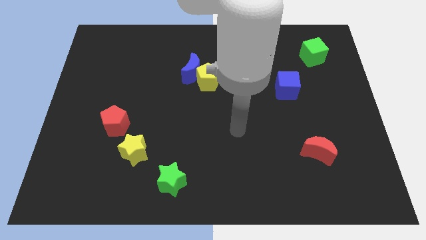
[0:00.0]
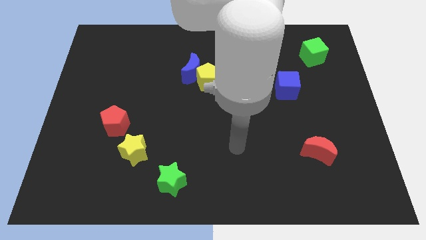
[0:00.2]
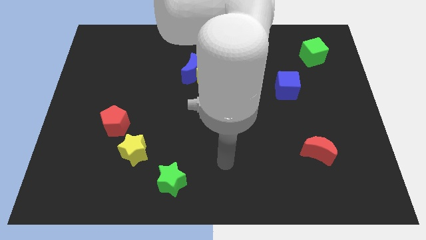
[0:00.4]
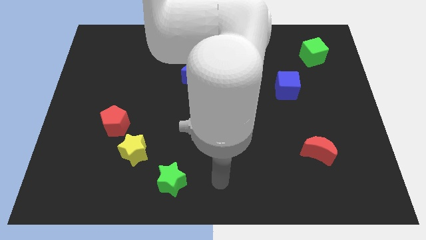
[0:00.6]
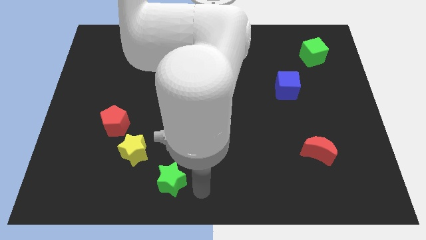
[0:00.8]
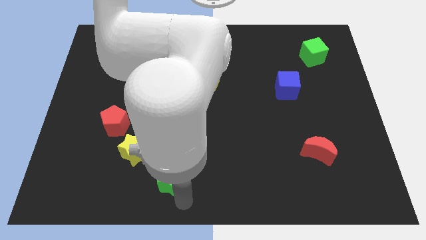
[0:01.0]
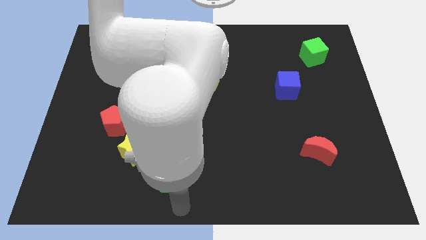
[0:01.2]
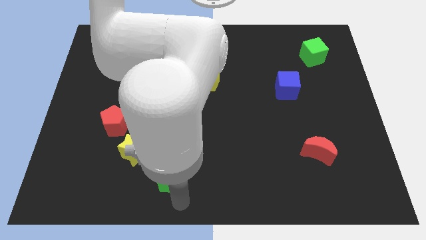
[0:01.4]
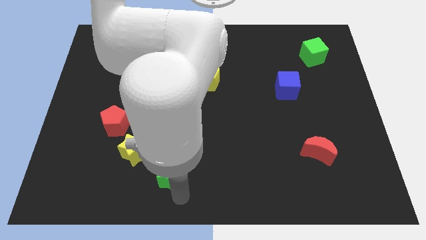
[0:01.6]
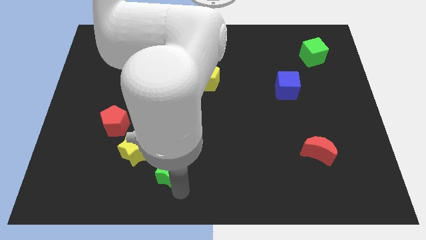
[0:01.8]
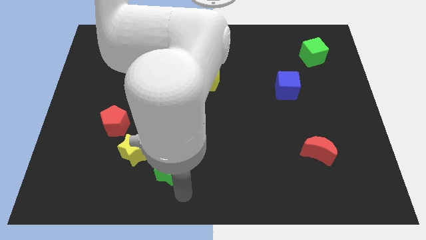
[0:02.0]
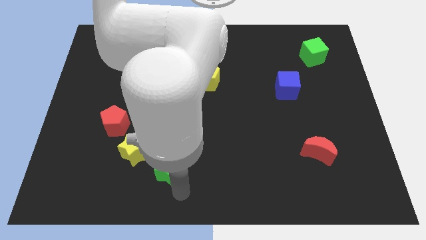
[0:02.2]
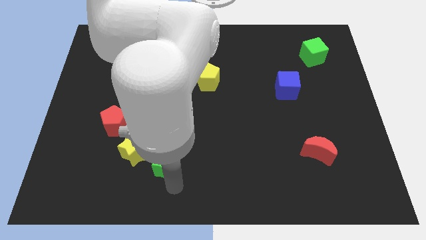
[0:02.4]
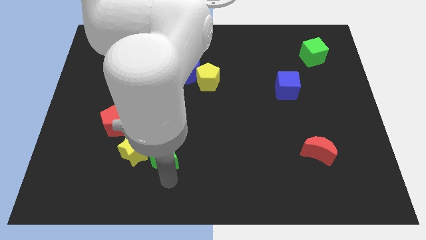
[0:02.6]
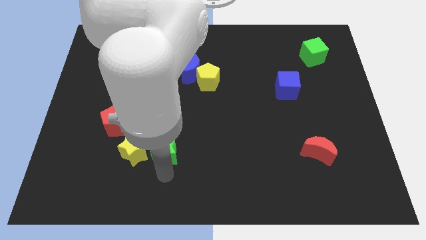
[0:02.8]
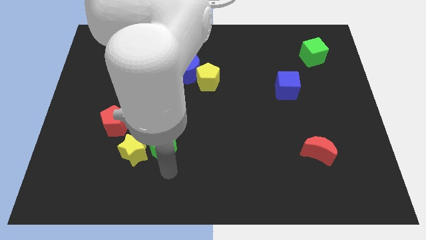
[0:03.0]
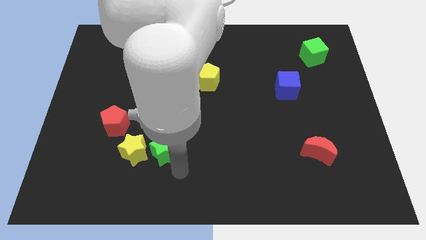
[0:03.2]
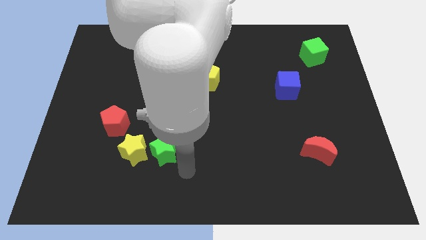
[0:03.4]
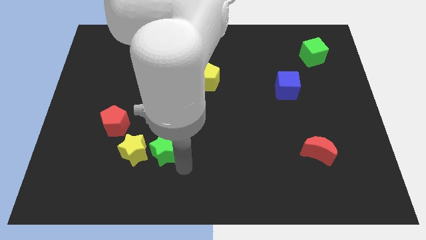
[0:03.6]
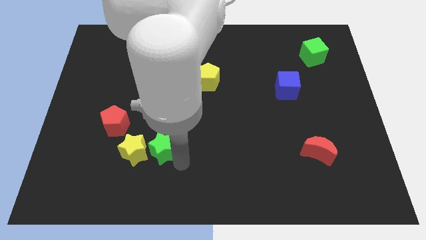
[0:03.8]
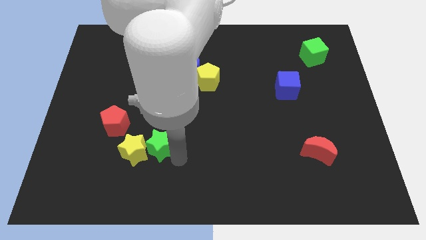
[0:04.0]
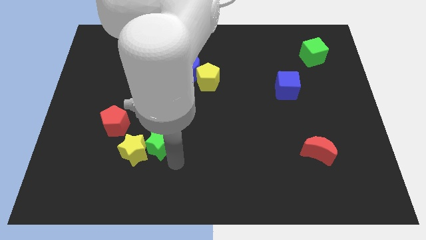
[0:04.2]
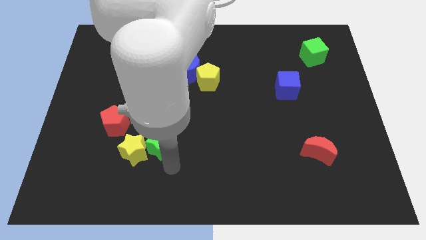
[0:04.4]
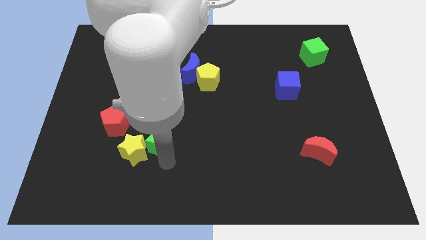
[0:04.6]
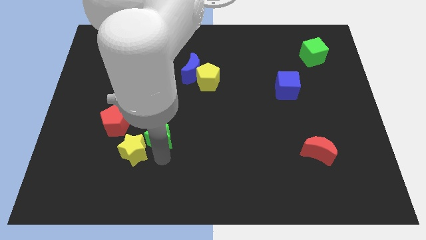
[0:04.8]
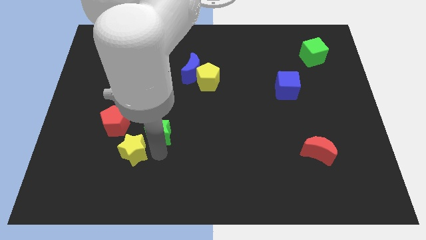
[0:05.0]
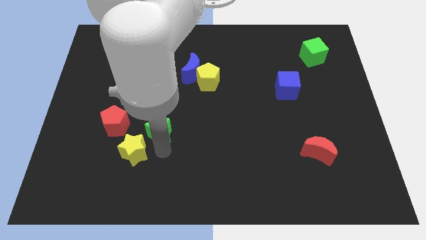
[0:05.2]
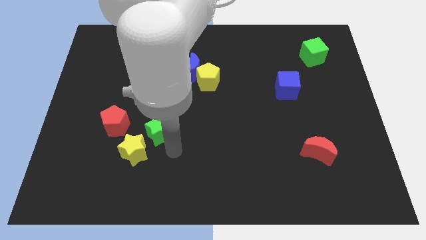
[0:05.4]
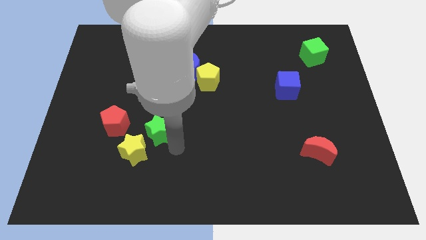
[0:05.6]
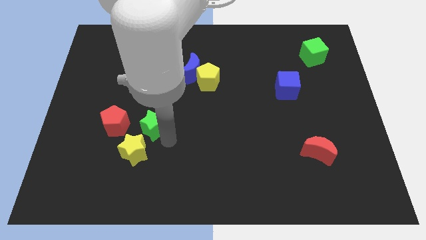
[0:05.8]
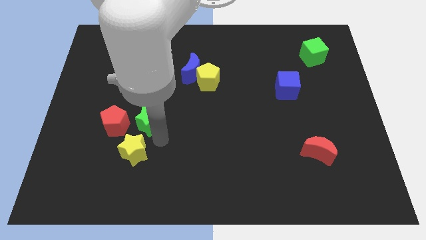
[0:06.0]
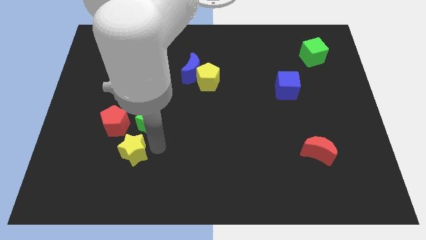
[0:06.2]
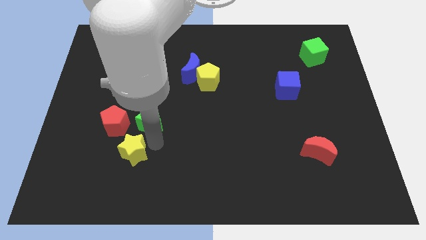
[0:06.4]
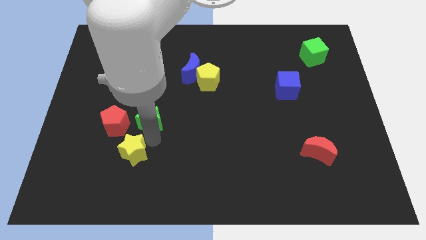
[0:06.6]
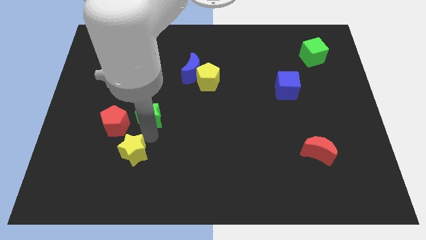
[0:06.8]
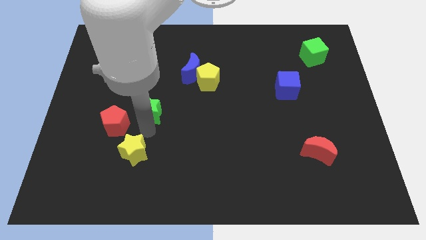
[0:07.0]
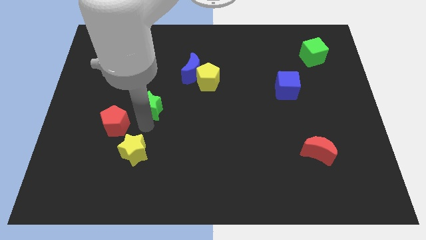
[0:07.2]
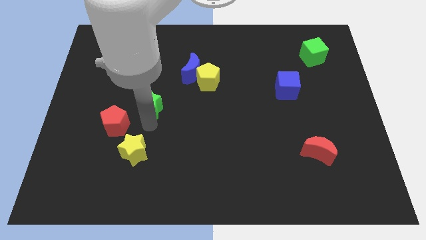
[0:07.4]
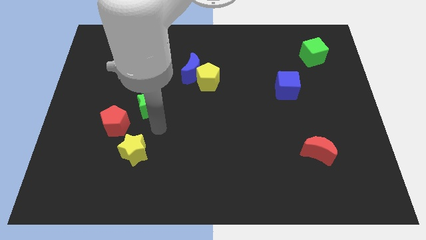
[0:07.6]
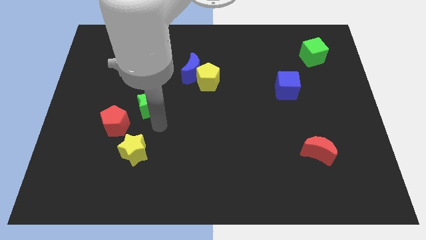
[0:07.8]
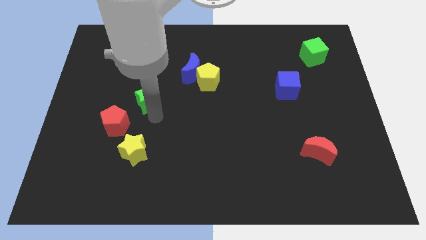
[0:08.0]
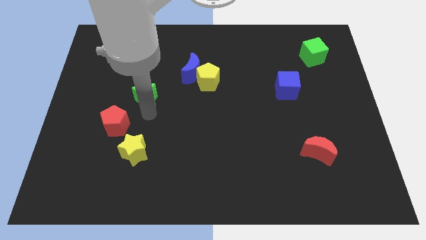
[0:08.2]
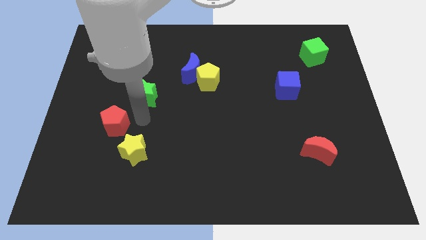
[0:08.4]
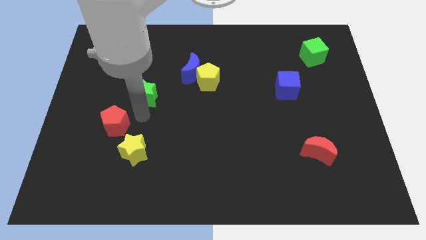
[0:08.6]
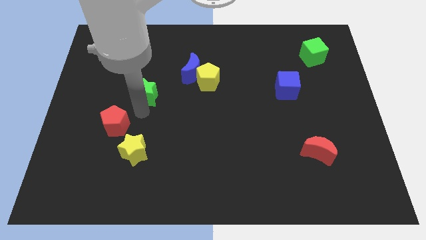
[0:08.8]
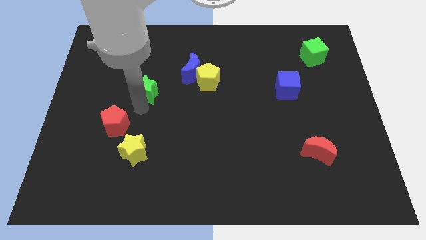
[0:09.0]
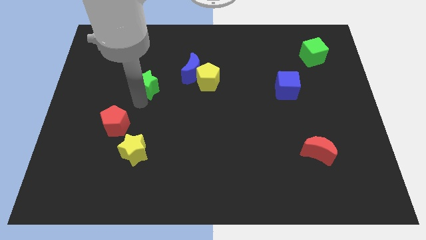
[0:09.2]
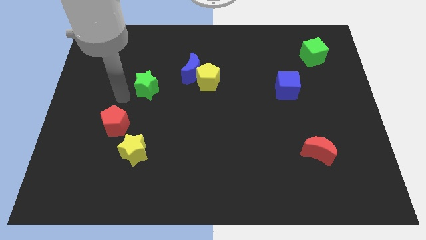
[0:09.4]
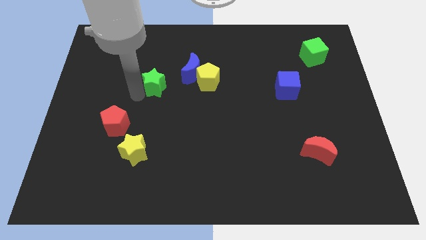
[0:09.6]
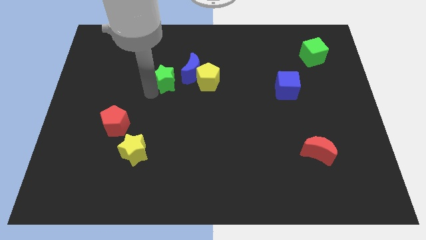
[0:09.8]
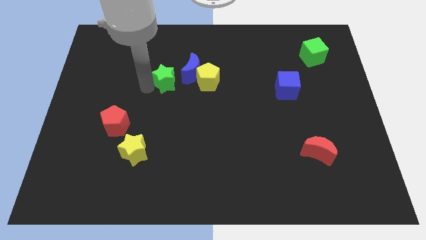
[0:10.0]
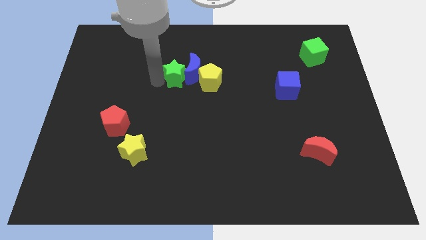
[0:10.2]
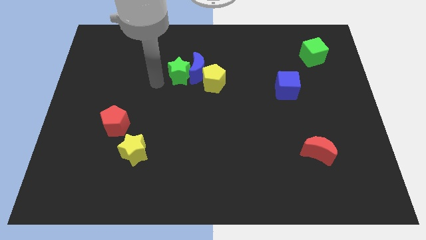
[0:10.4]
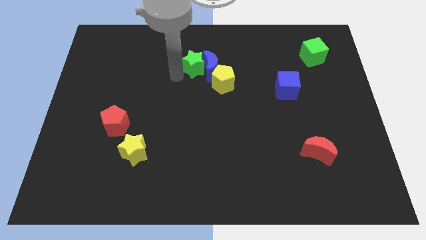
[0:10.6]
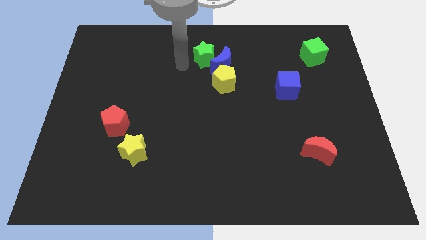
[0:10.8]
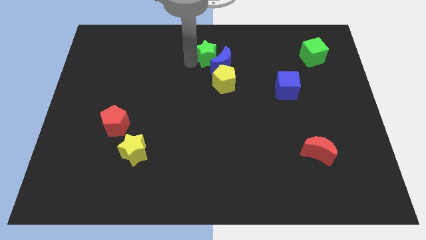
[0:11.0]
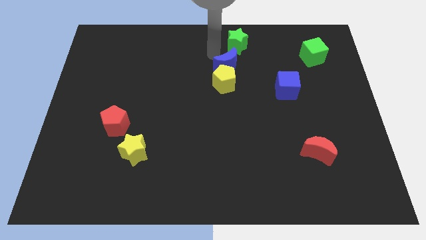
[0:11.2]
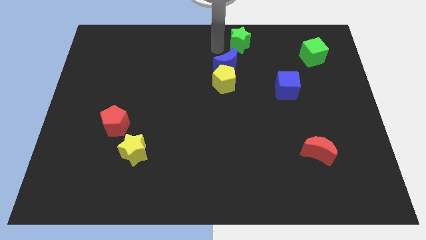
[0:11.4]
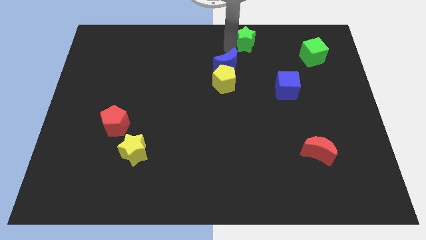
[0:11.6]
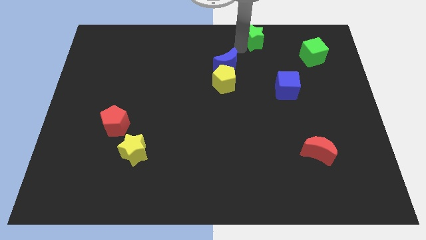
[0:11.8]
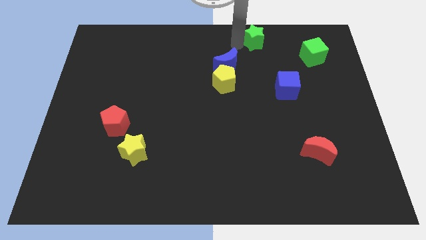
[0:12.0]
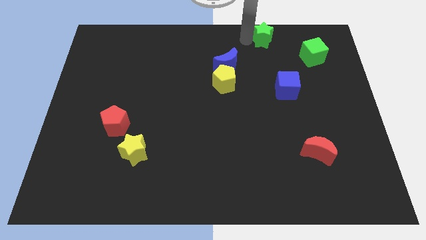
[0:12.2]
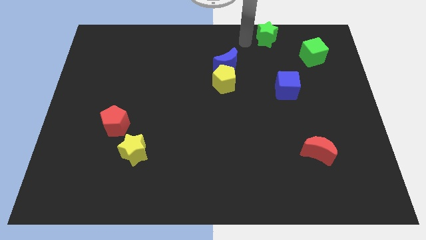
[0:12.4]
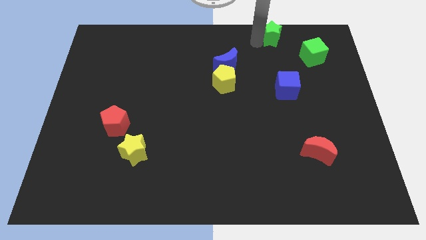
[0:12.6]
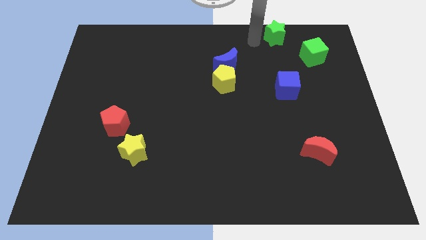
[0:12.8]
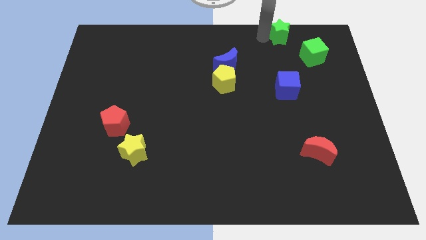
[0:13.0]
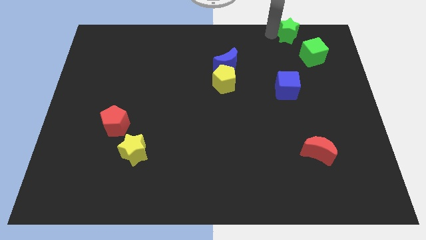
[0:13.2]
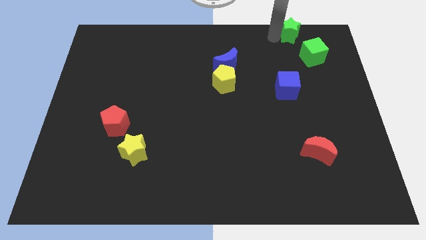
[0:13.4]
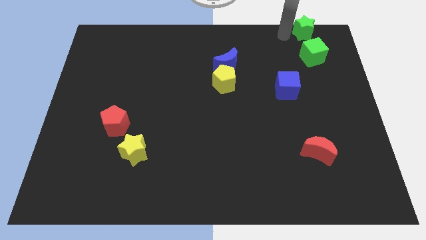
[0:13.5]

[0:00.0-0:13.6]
slide the green star to the upper right corner

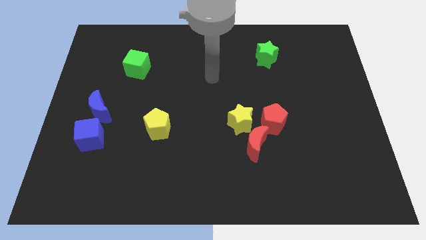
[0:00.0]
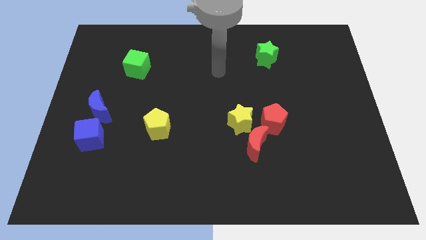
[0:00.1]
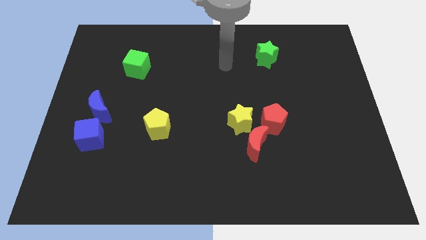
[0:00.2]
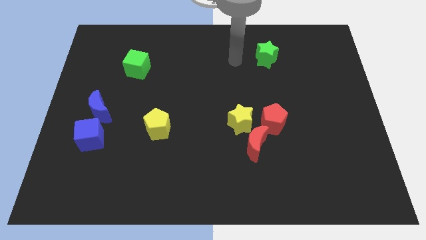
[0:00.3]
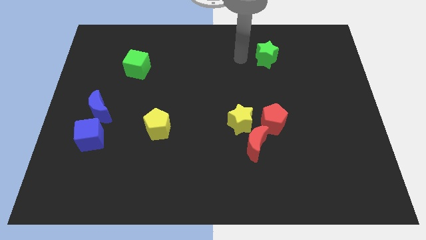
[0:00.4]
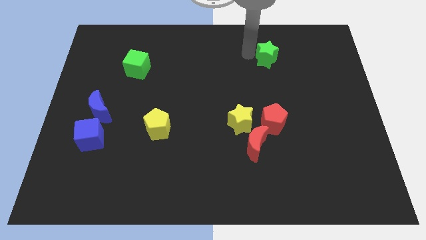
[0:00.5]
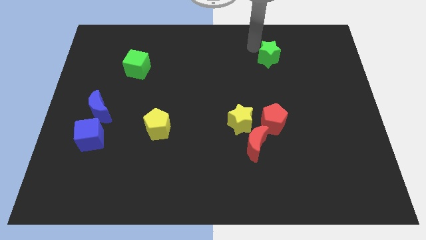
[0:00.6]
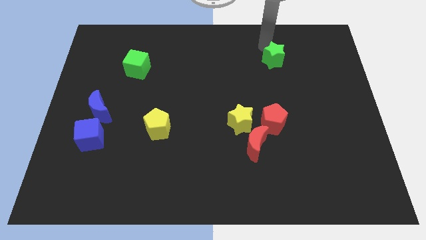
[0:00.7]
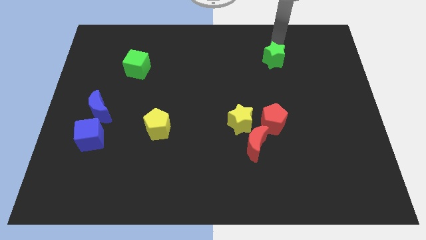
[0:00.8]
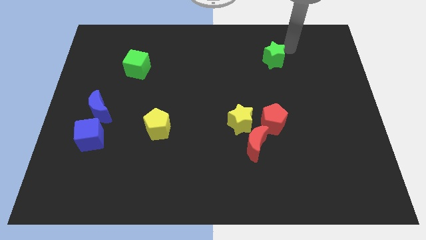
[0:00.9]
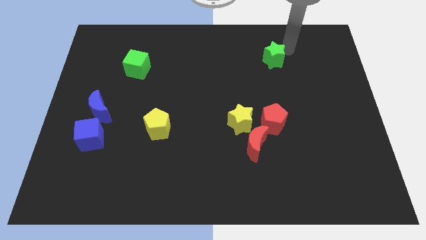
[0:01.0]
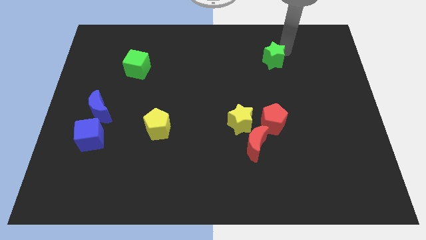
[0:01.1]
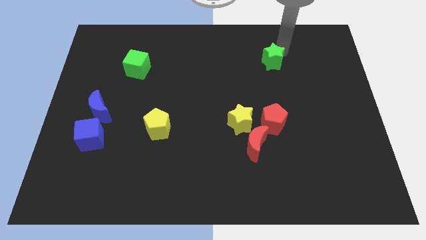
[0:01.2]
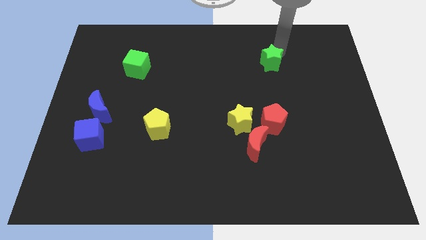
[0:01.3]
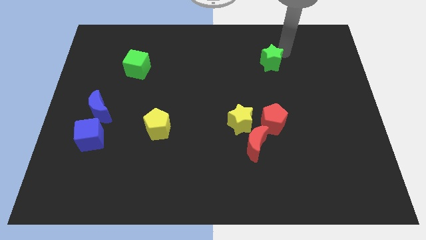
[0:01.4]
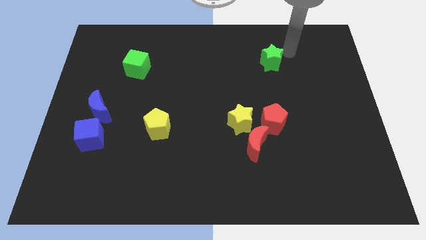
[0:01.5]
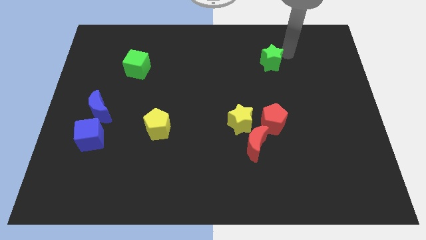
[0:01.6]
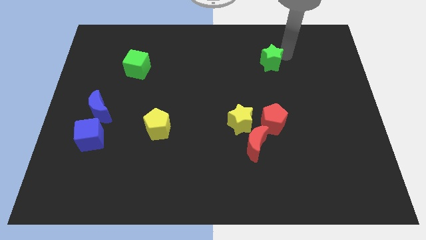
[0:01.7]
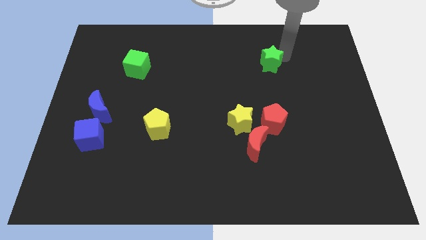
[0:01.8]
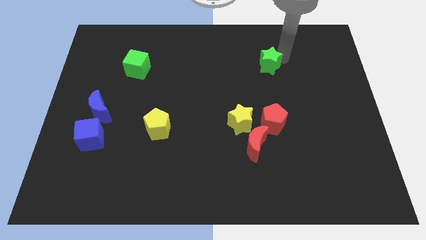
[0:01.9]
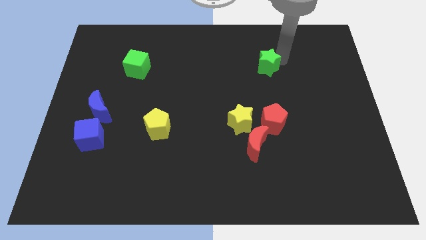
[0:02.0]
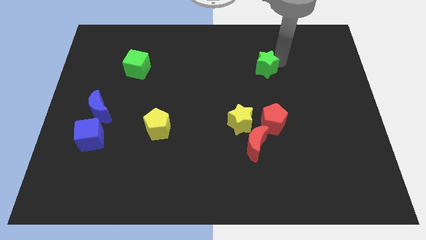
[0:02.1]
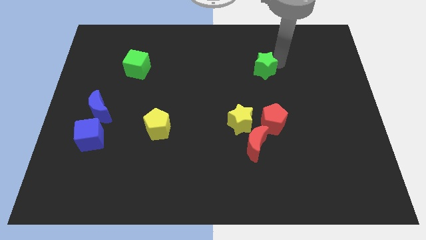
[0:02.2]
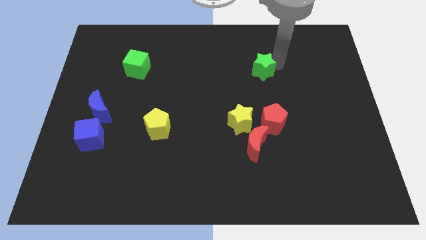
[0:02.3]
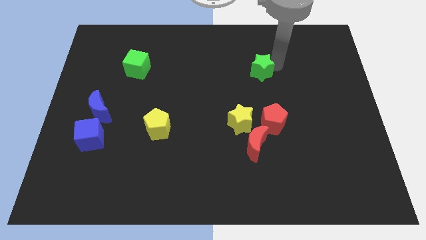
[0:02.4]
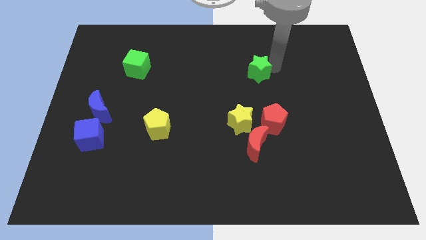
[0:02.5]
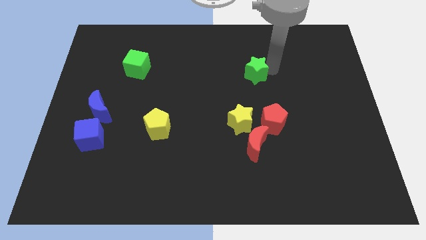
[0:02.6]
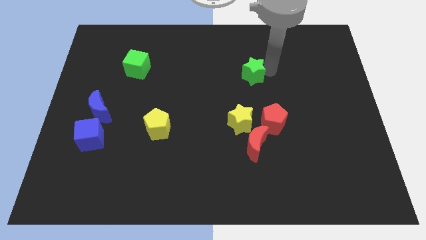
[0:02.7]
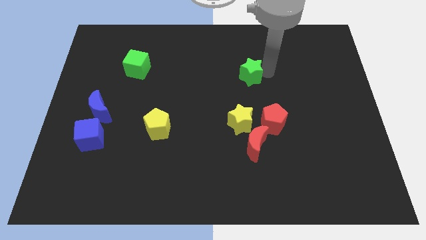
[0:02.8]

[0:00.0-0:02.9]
slide the green star to the center
